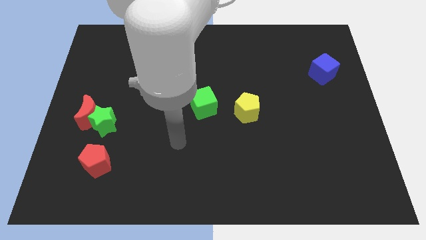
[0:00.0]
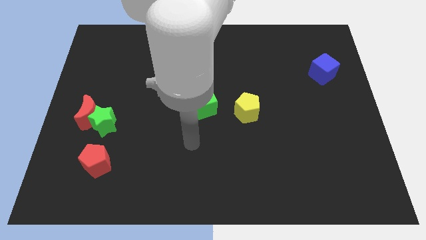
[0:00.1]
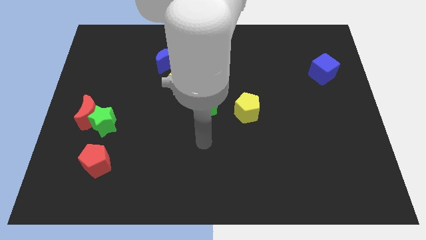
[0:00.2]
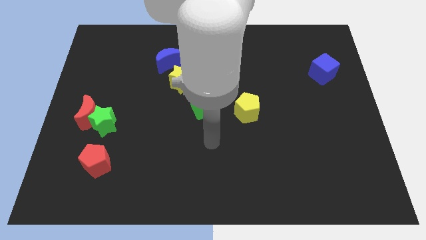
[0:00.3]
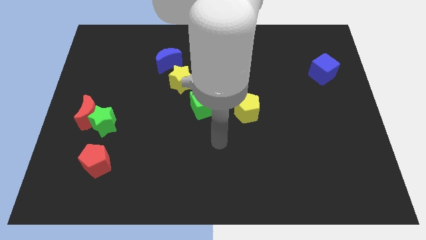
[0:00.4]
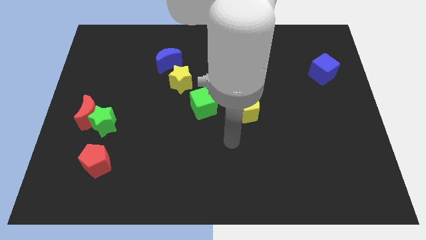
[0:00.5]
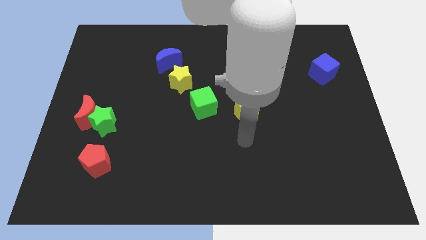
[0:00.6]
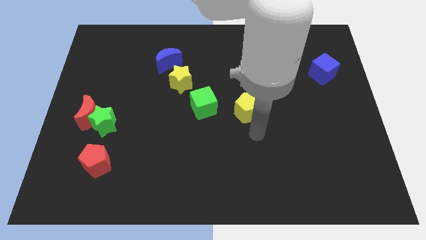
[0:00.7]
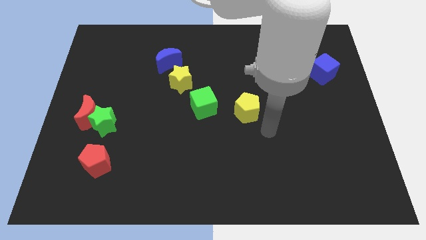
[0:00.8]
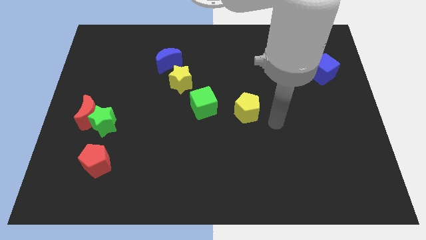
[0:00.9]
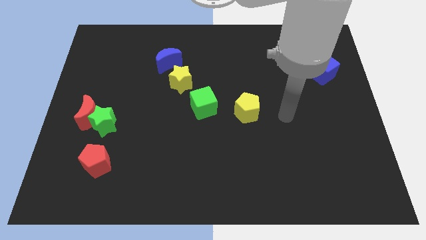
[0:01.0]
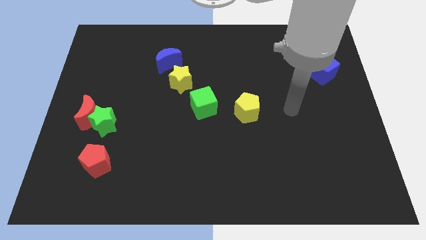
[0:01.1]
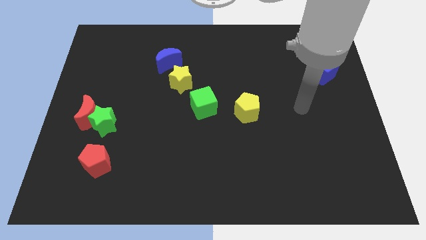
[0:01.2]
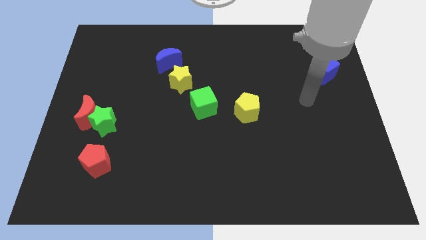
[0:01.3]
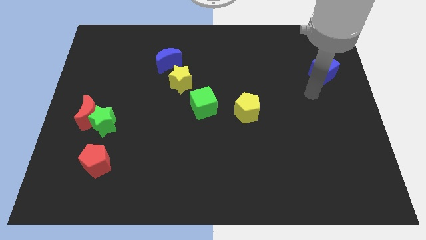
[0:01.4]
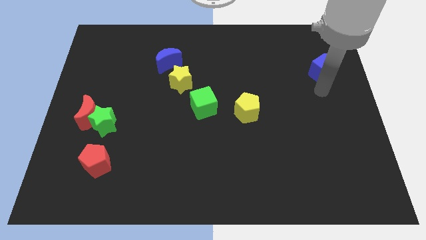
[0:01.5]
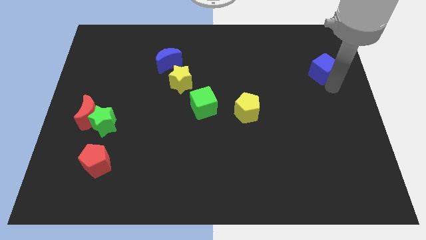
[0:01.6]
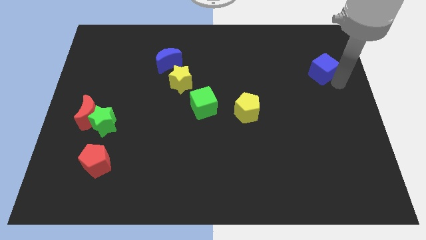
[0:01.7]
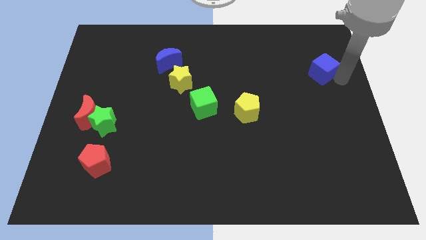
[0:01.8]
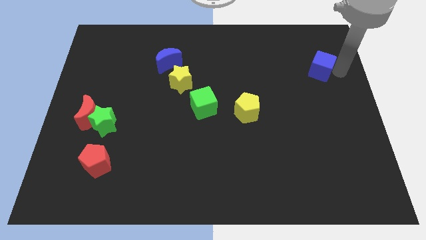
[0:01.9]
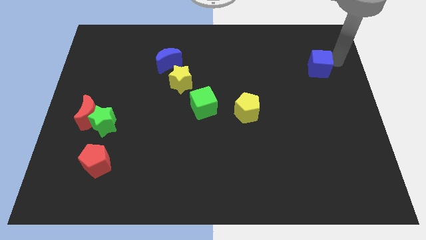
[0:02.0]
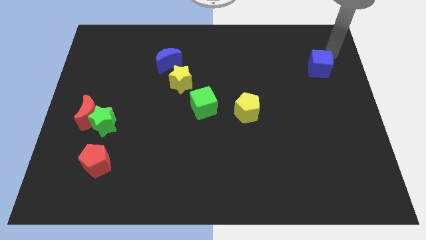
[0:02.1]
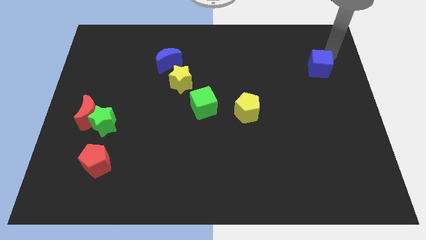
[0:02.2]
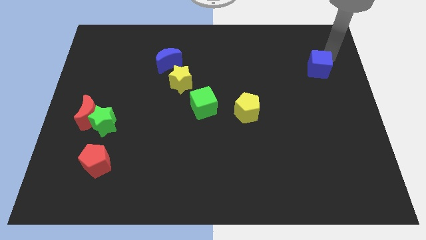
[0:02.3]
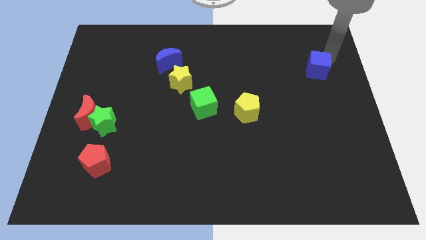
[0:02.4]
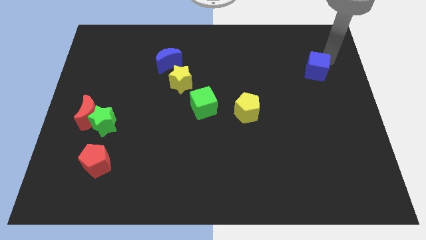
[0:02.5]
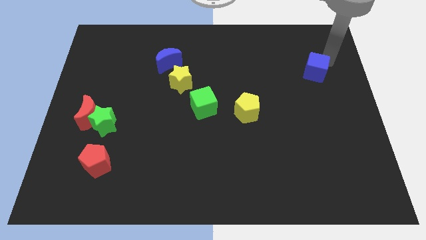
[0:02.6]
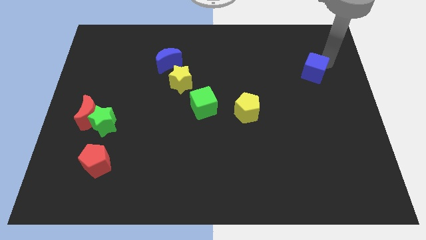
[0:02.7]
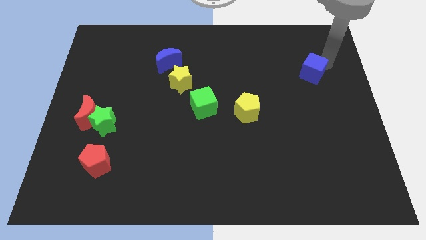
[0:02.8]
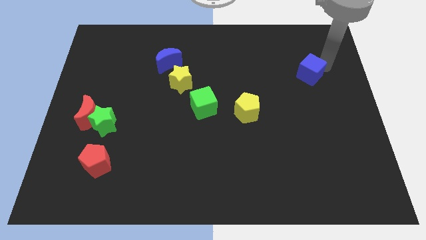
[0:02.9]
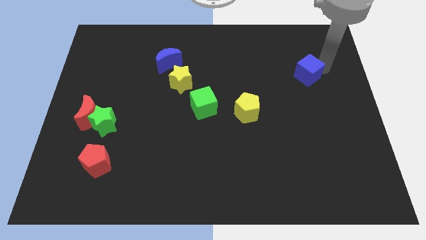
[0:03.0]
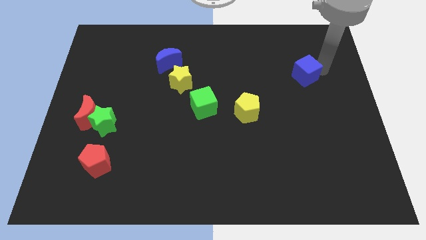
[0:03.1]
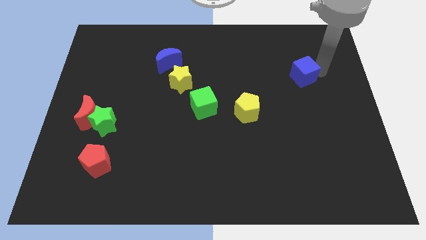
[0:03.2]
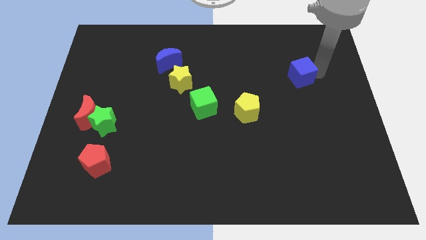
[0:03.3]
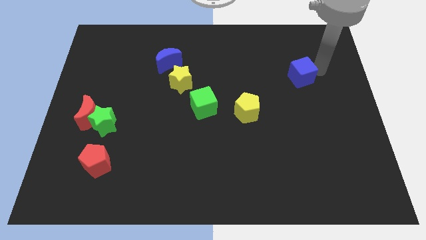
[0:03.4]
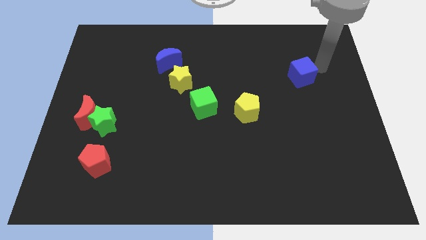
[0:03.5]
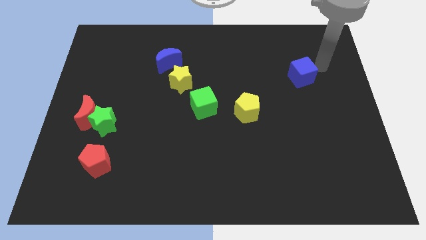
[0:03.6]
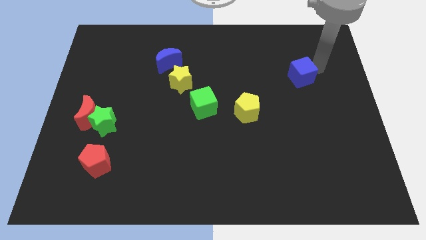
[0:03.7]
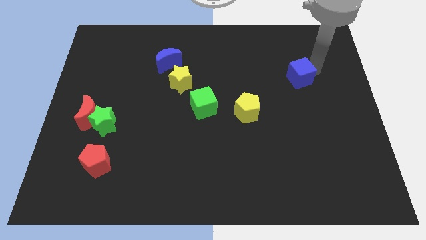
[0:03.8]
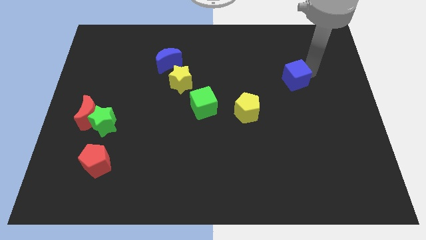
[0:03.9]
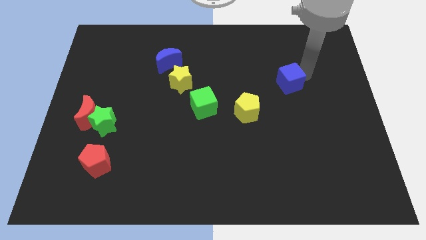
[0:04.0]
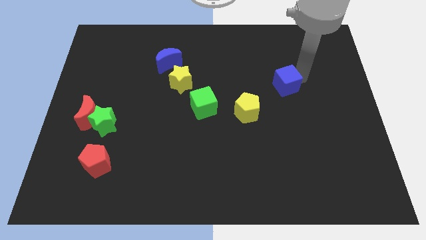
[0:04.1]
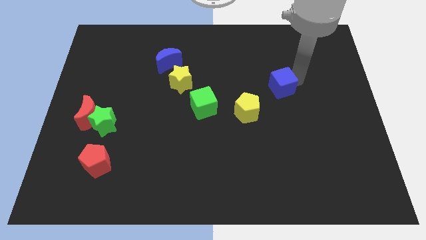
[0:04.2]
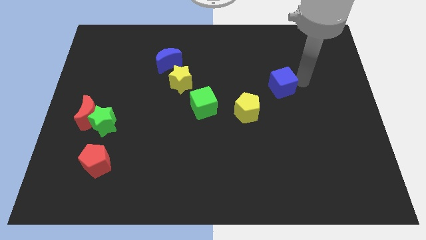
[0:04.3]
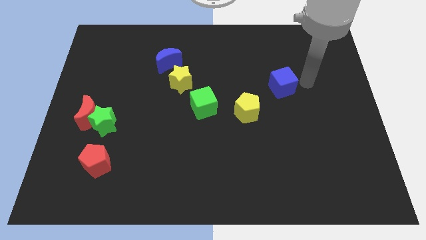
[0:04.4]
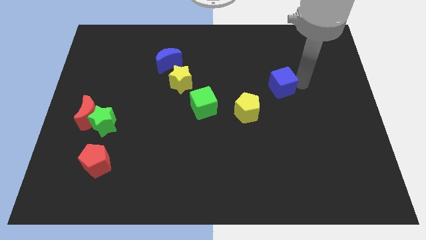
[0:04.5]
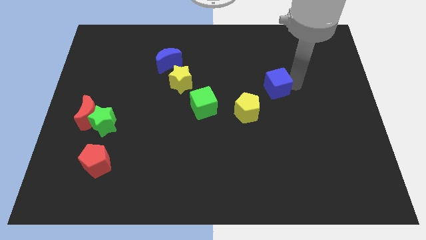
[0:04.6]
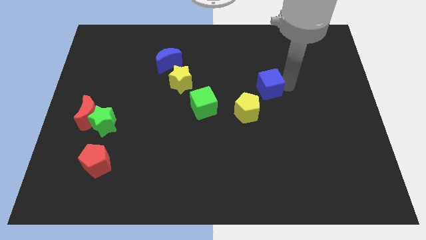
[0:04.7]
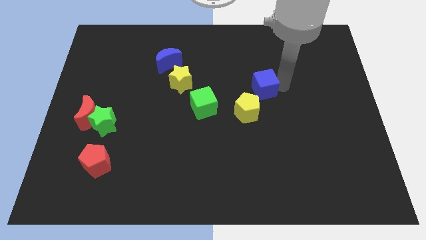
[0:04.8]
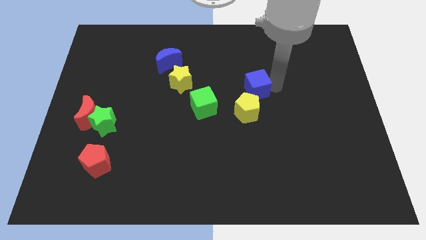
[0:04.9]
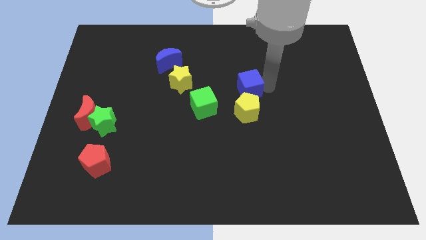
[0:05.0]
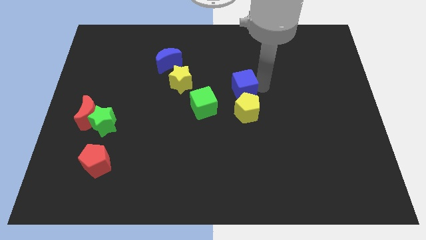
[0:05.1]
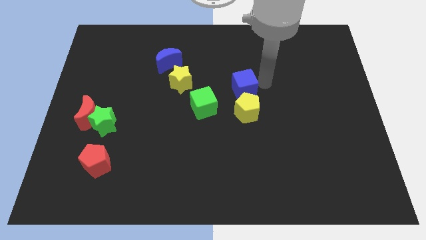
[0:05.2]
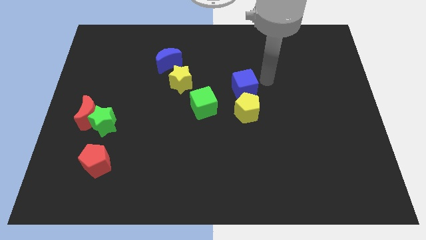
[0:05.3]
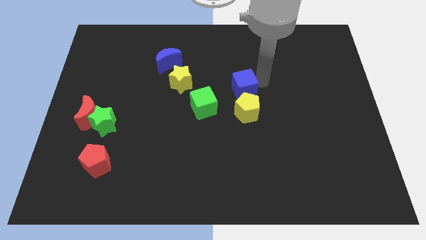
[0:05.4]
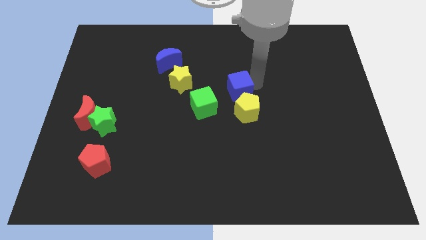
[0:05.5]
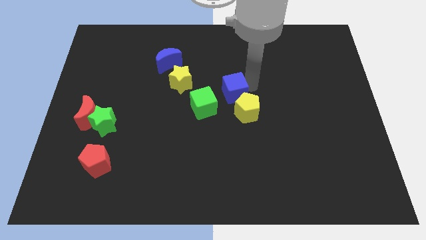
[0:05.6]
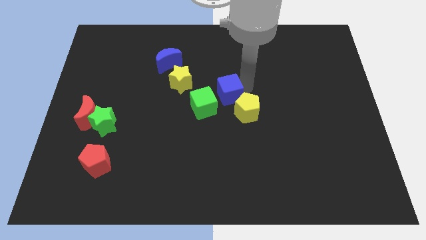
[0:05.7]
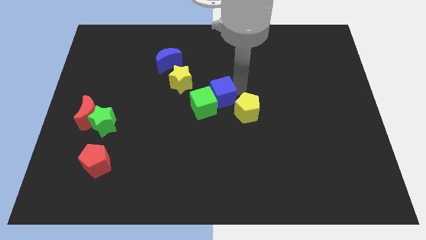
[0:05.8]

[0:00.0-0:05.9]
put the blue cube close to the green cube

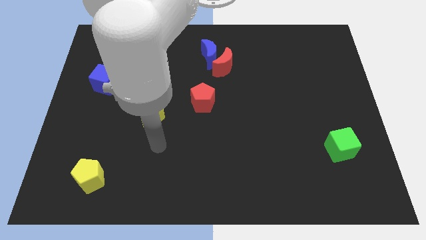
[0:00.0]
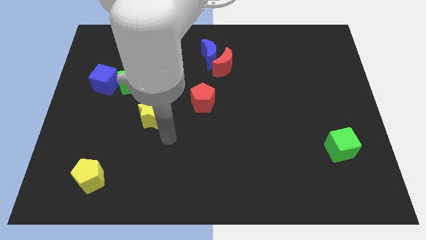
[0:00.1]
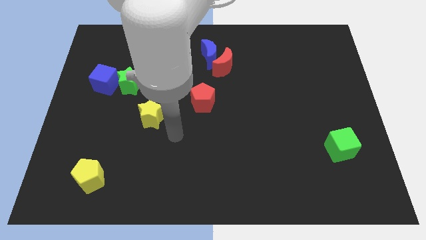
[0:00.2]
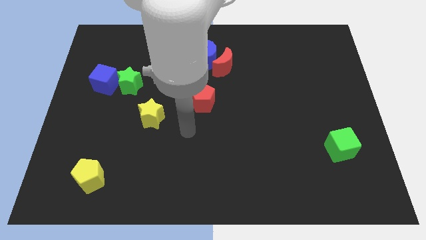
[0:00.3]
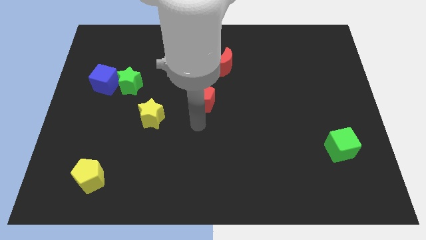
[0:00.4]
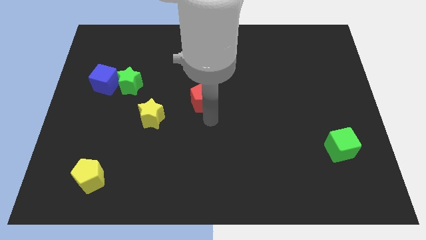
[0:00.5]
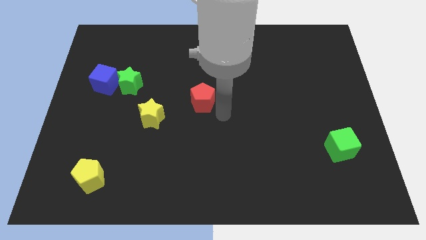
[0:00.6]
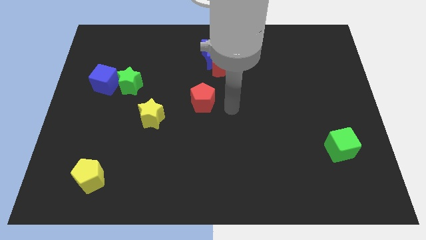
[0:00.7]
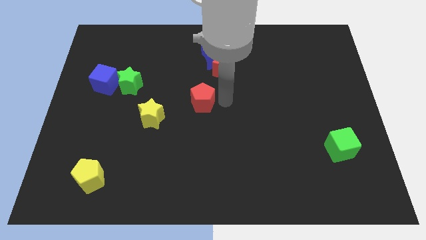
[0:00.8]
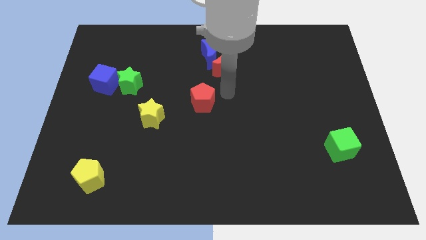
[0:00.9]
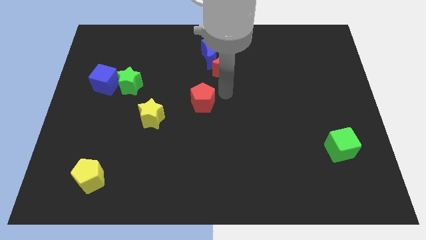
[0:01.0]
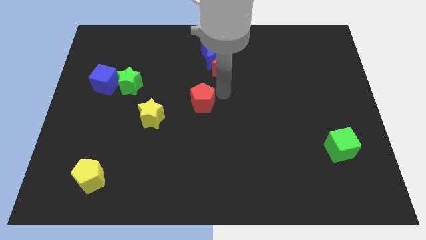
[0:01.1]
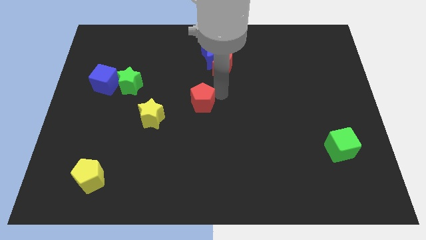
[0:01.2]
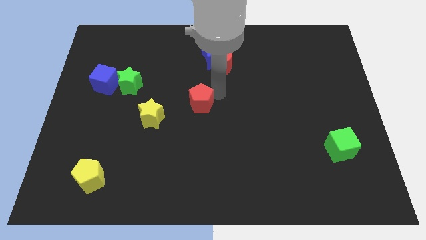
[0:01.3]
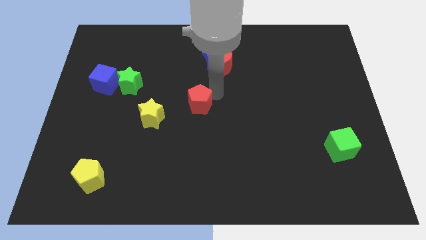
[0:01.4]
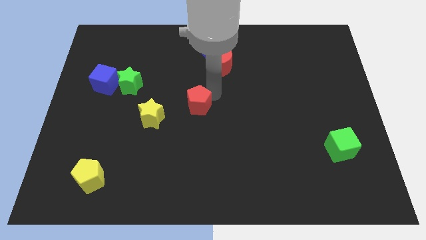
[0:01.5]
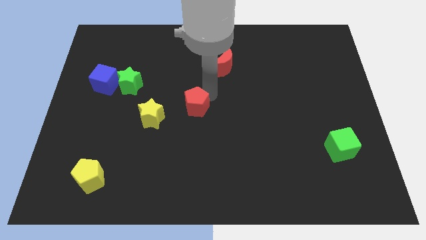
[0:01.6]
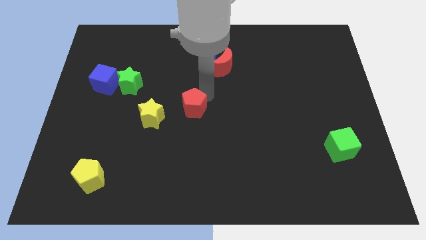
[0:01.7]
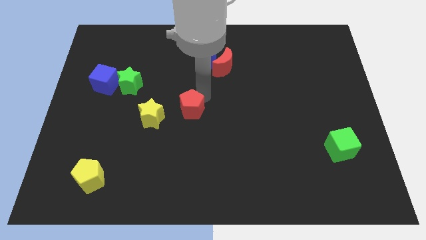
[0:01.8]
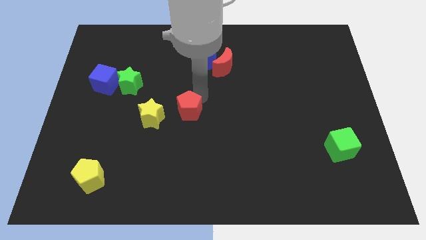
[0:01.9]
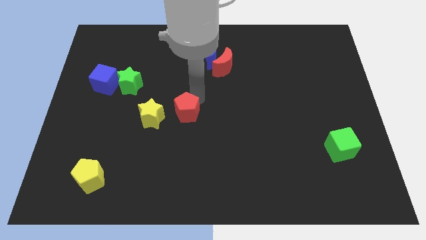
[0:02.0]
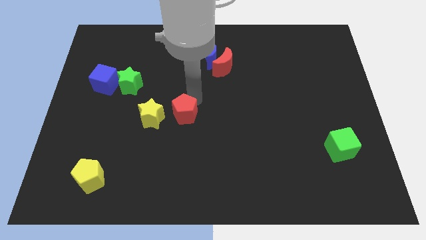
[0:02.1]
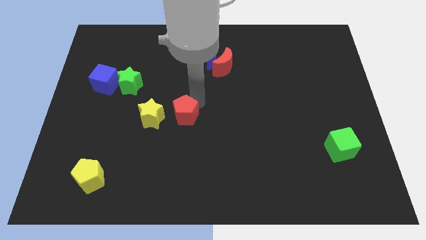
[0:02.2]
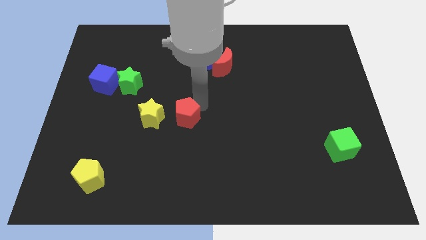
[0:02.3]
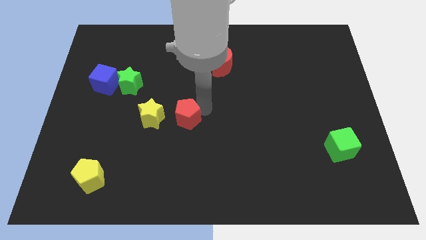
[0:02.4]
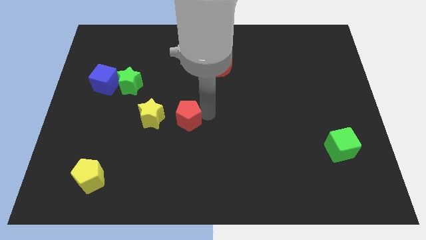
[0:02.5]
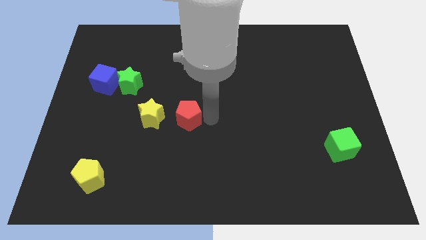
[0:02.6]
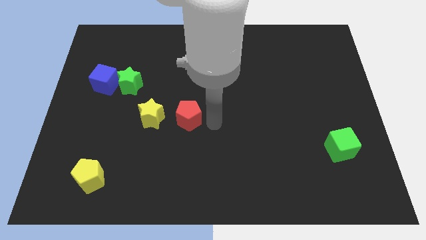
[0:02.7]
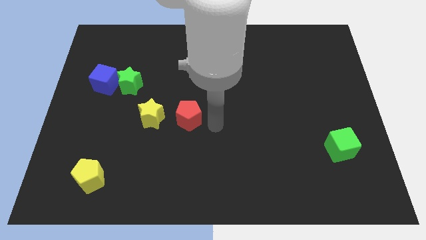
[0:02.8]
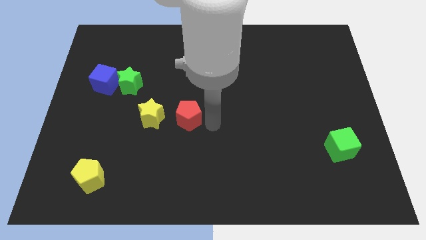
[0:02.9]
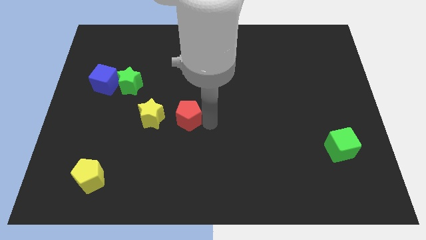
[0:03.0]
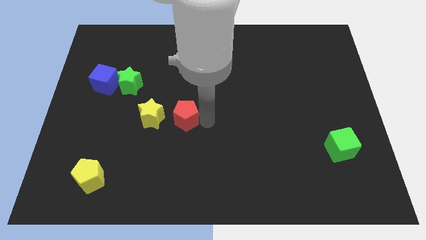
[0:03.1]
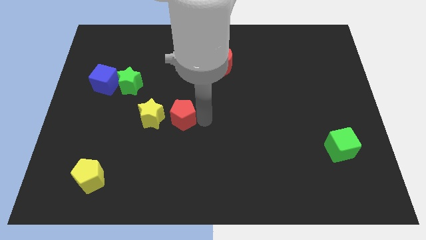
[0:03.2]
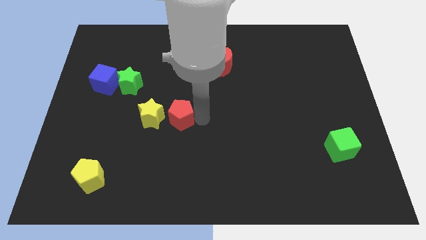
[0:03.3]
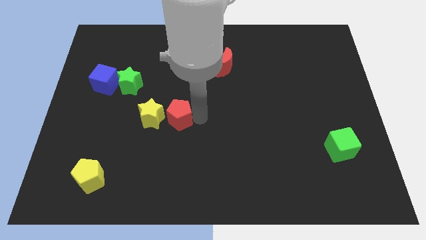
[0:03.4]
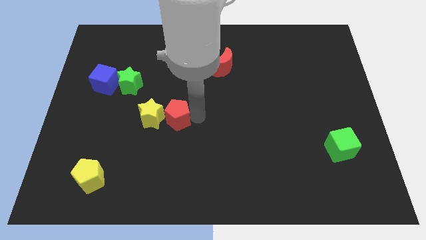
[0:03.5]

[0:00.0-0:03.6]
move the red pentagon close to the yellow star
